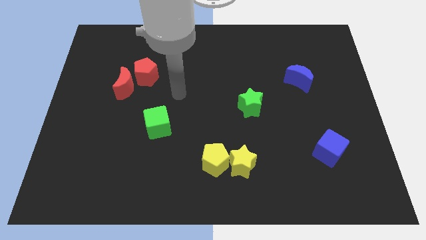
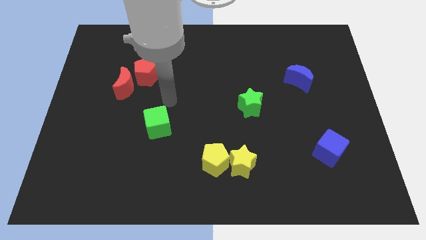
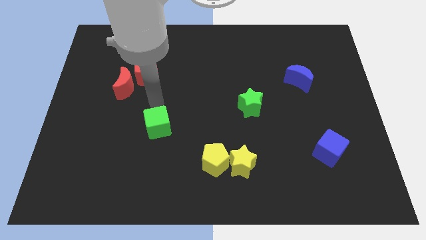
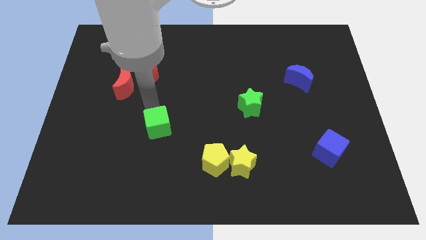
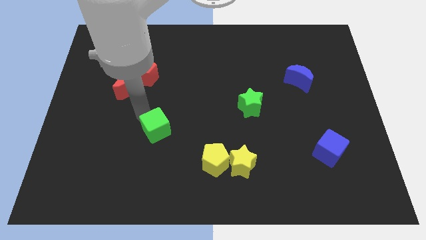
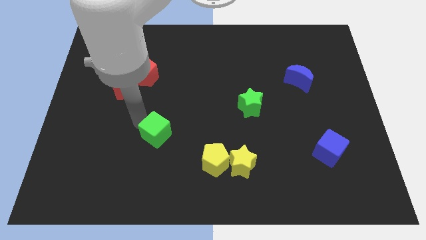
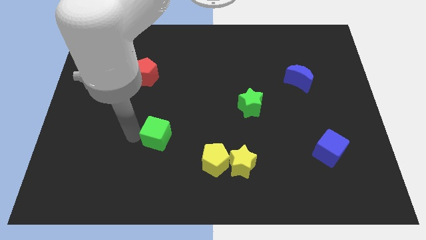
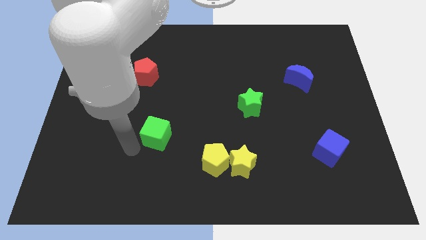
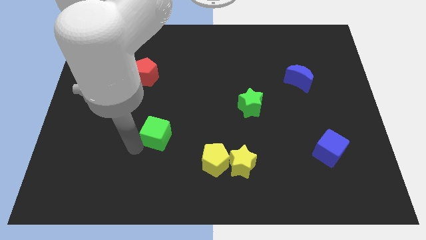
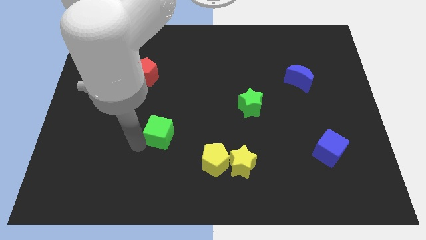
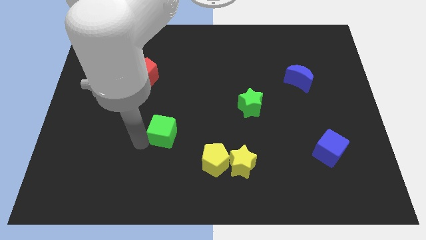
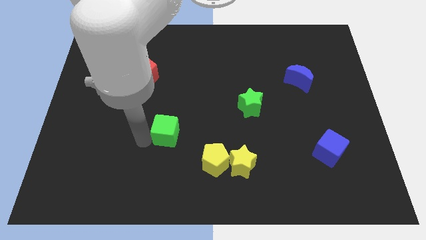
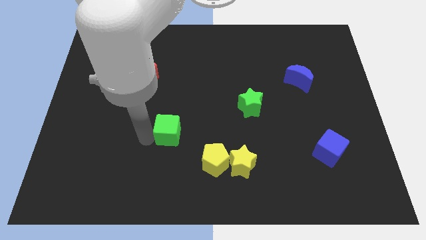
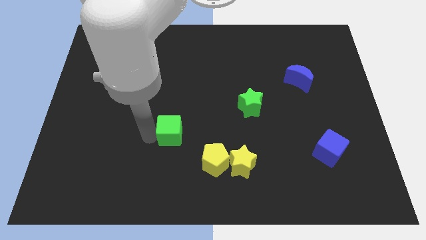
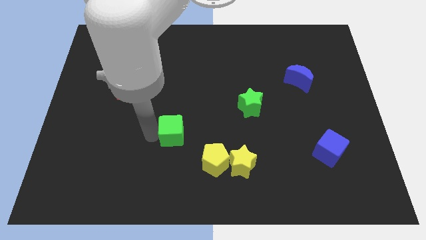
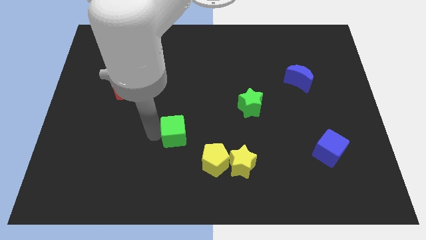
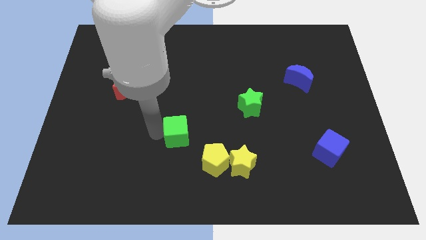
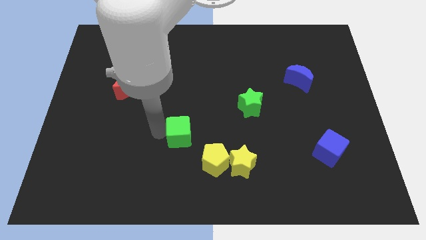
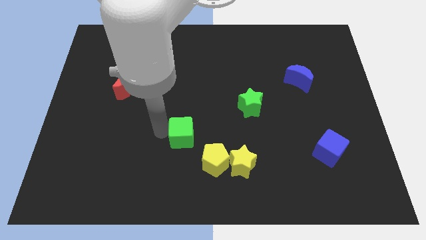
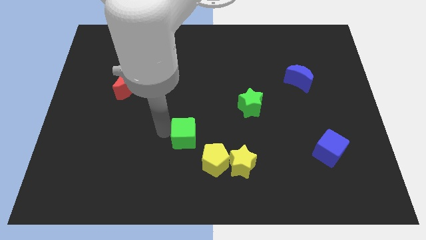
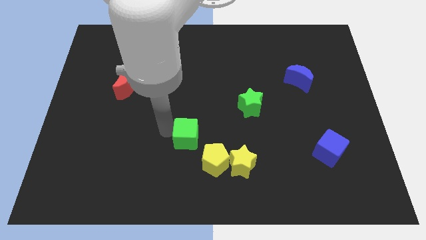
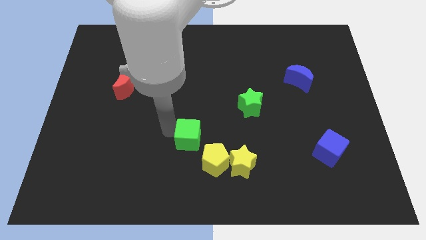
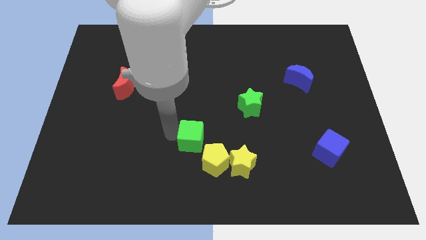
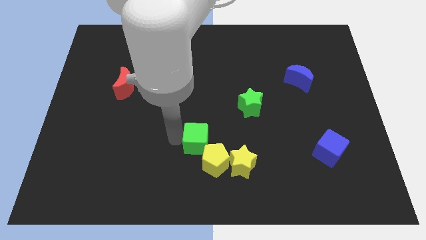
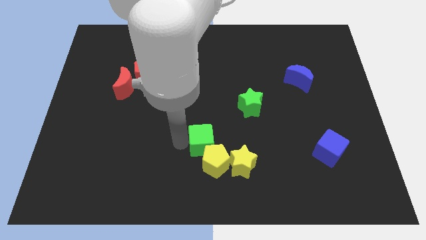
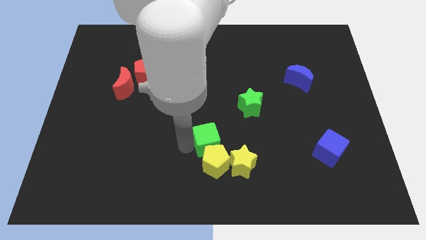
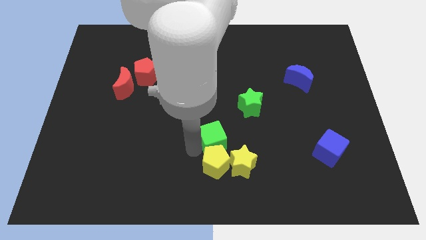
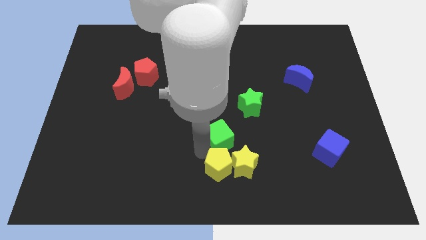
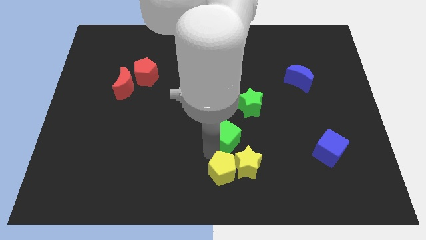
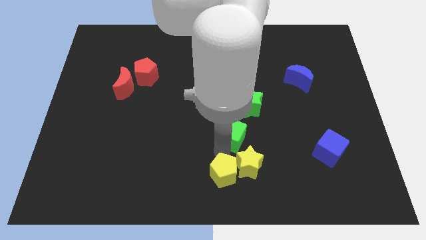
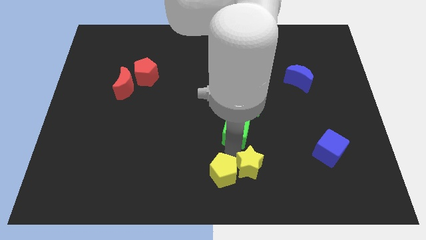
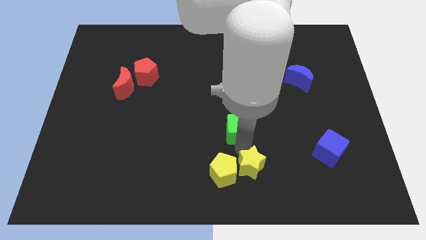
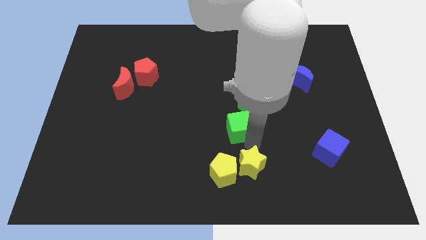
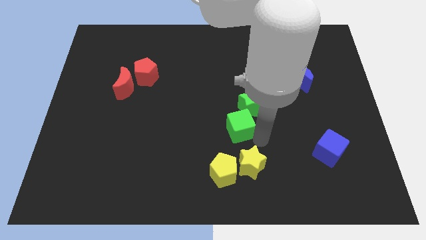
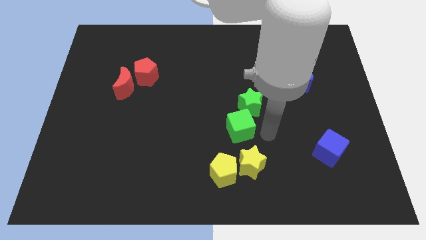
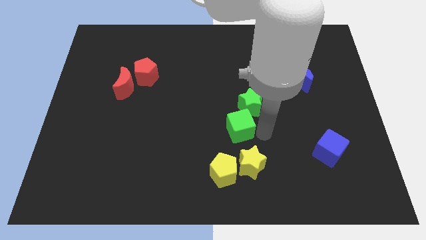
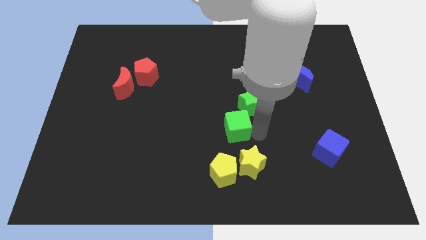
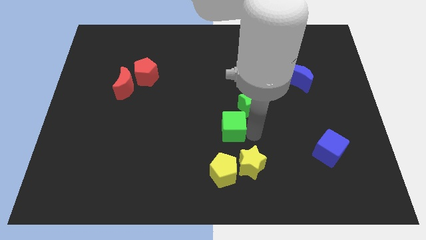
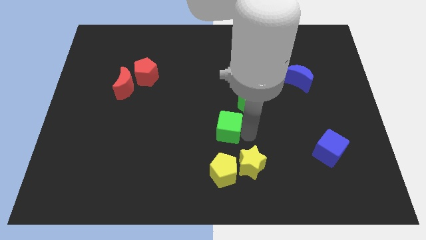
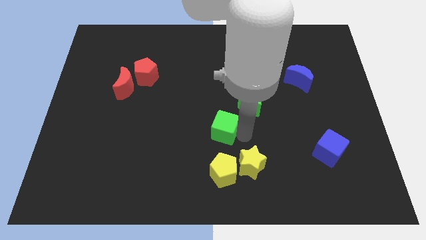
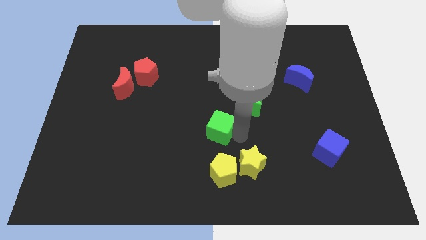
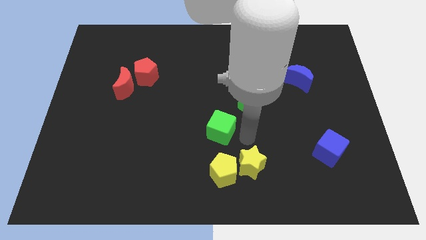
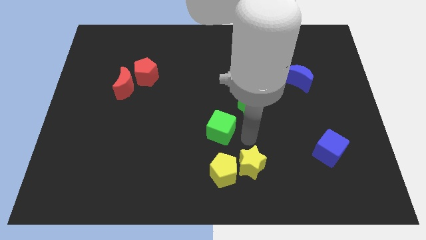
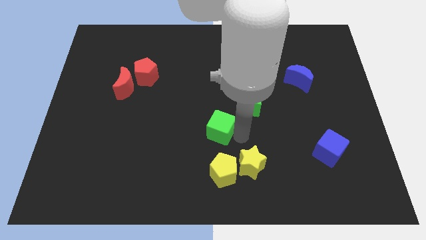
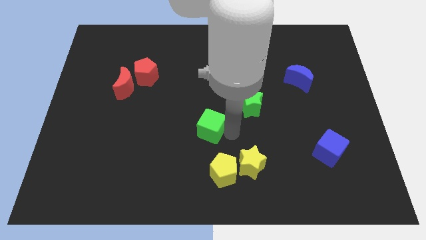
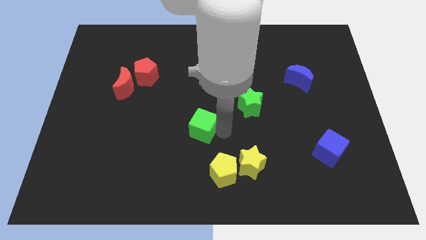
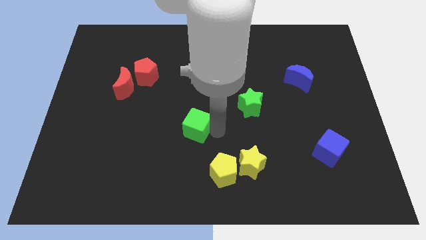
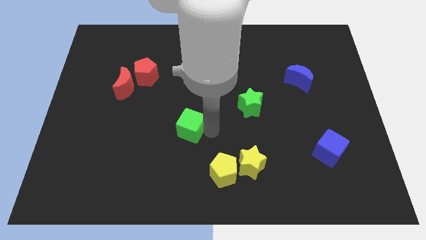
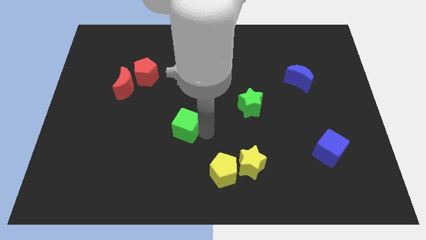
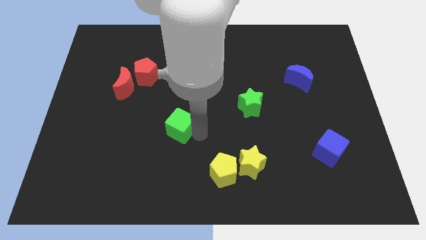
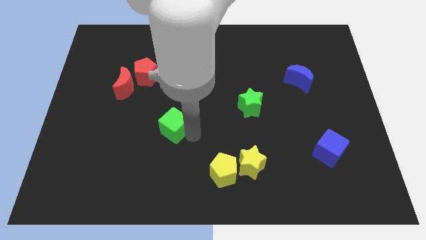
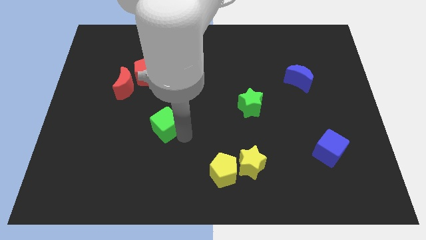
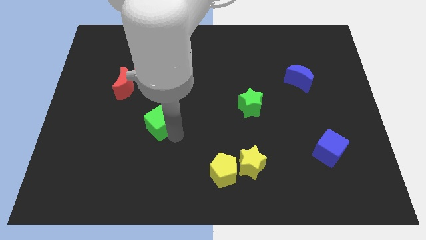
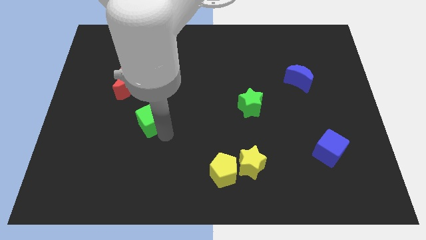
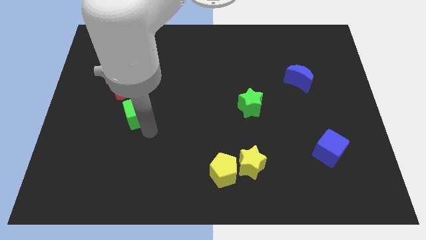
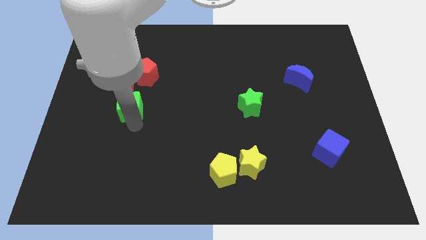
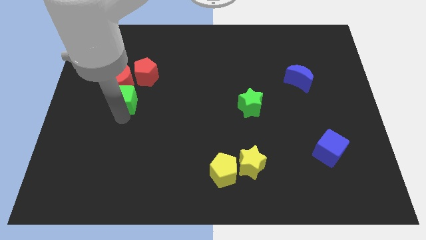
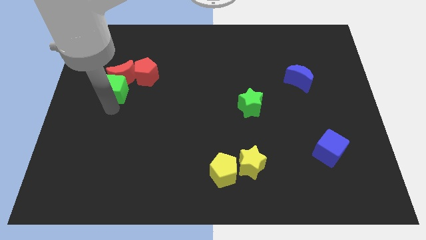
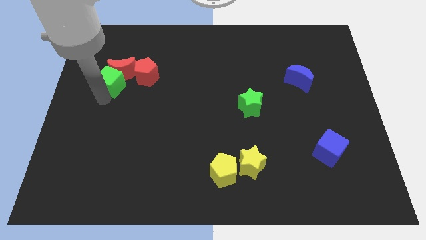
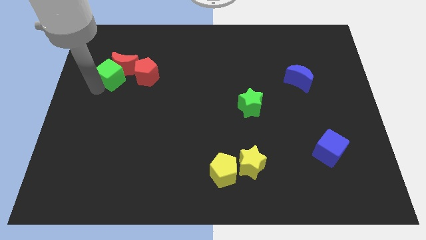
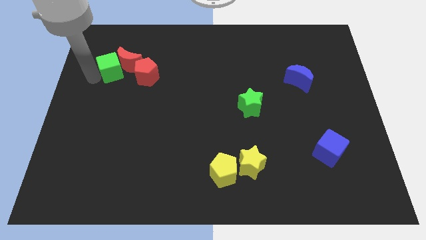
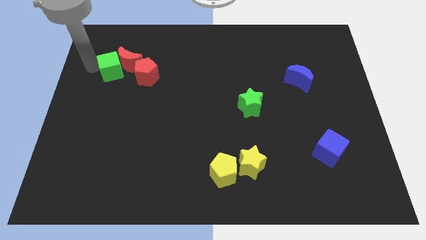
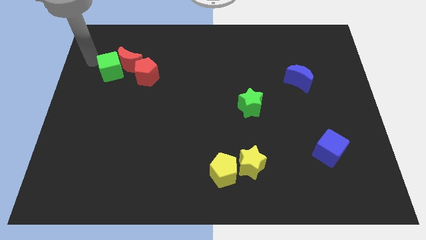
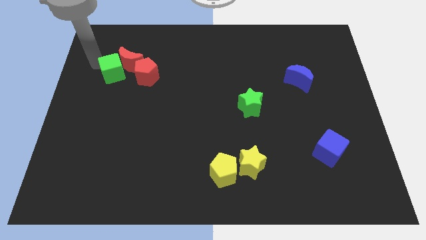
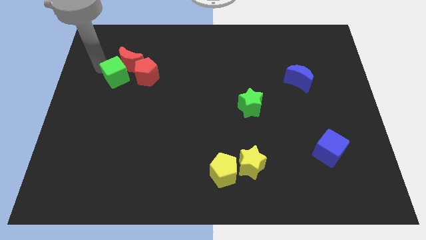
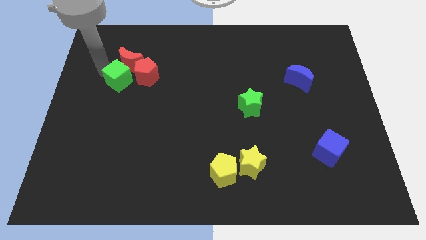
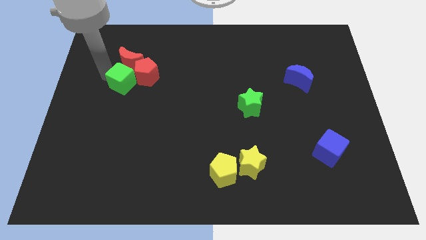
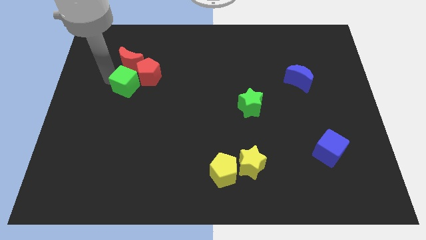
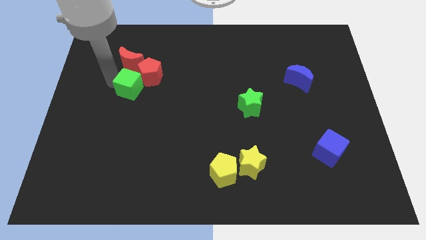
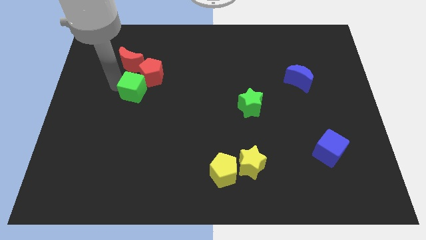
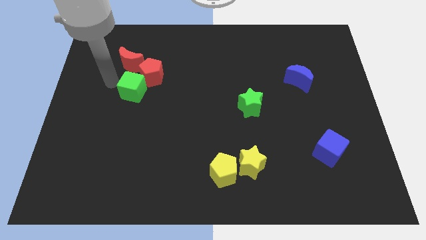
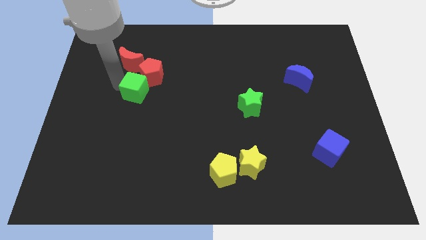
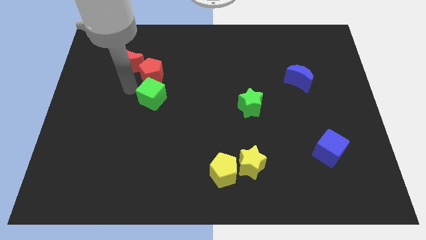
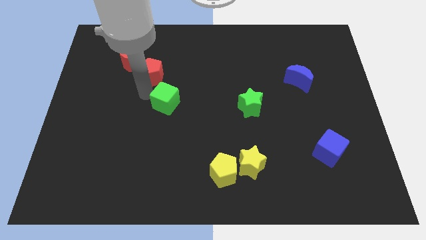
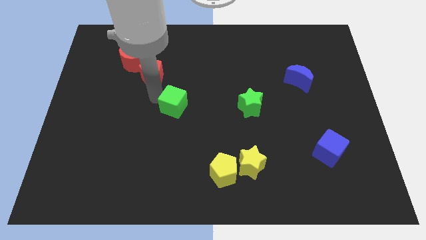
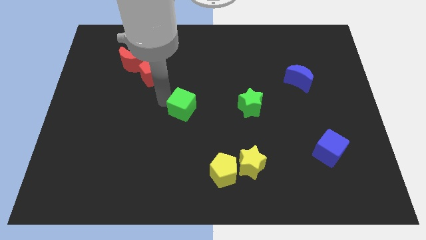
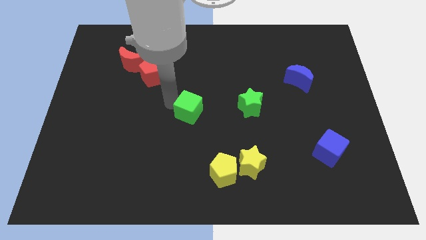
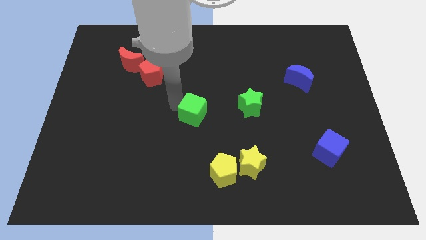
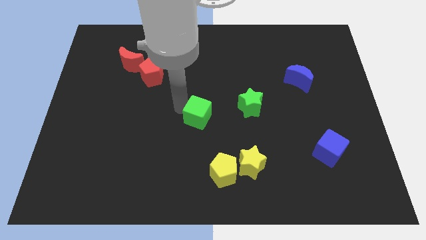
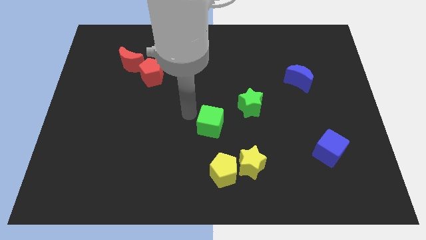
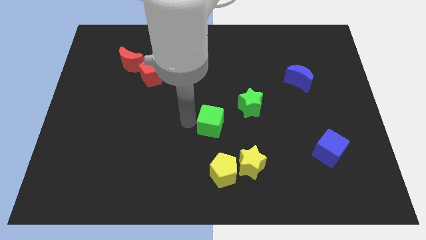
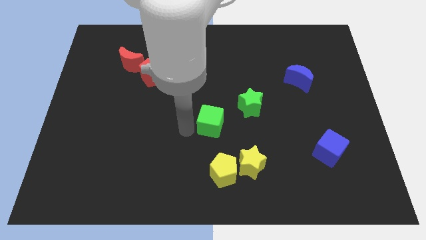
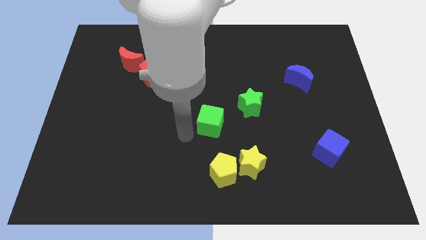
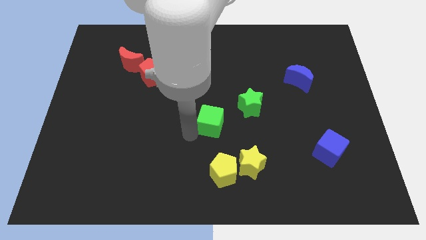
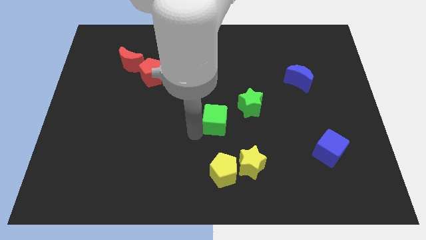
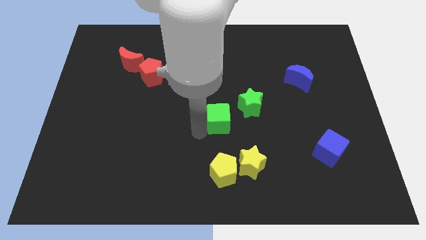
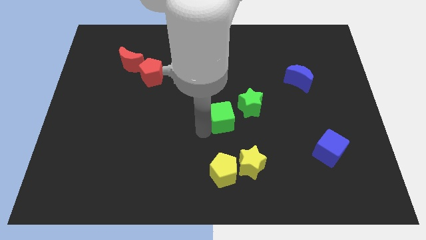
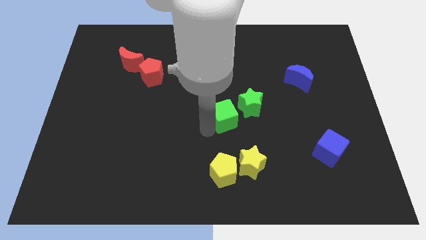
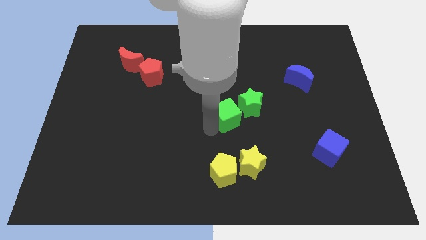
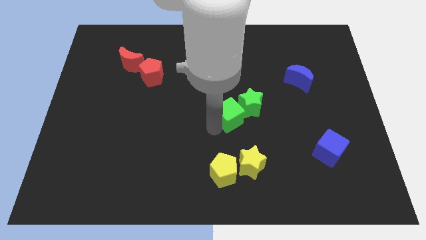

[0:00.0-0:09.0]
push the green cube to the green star
